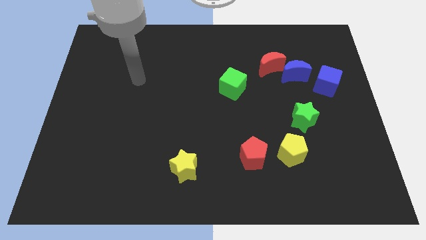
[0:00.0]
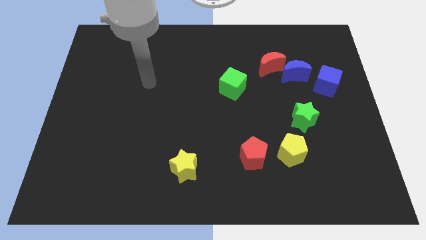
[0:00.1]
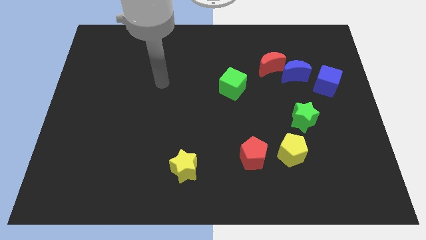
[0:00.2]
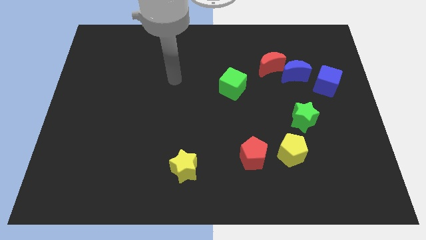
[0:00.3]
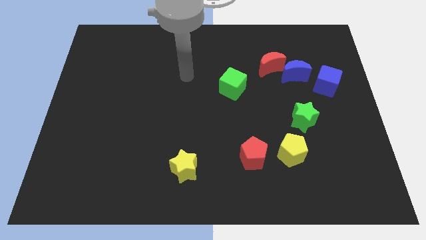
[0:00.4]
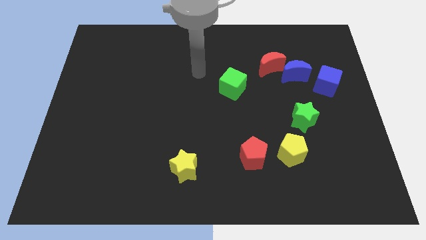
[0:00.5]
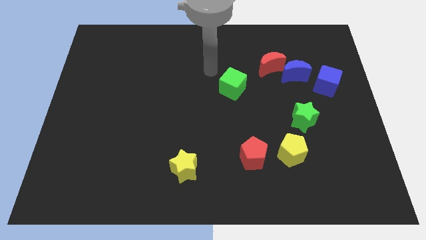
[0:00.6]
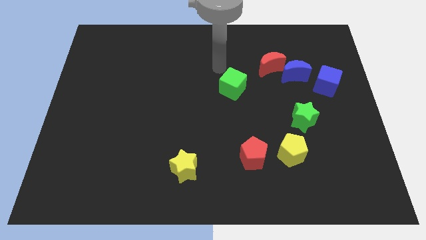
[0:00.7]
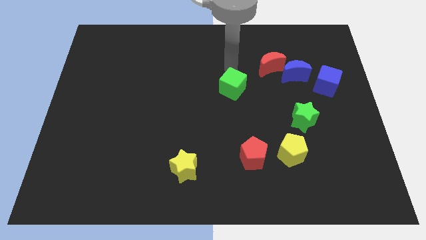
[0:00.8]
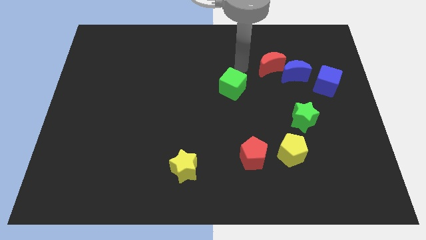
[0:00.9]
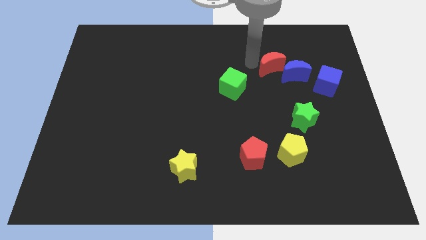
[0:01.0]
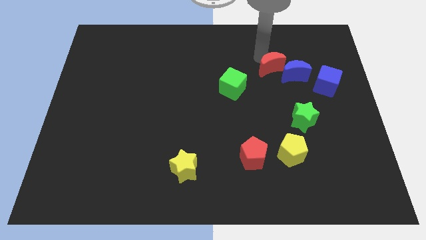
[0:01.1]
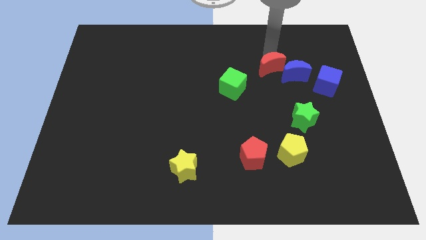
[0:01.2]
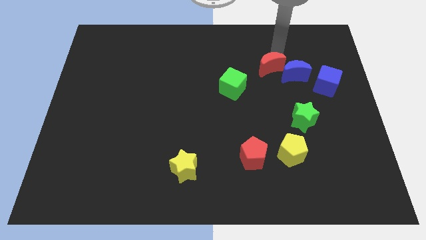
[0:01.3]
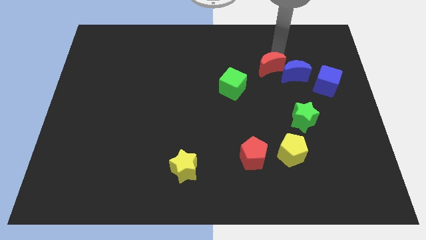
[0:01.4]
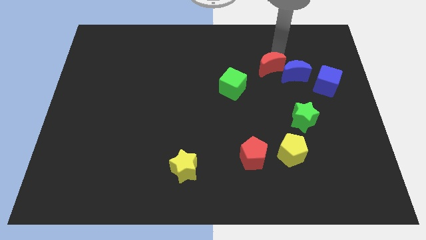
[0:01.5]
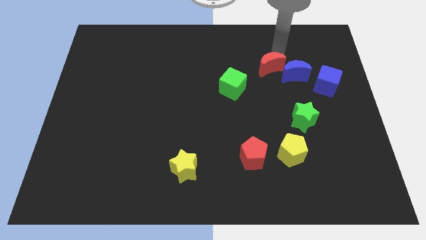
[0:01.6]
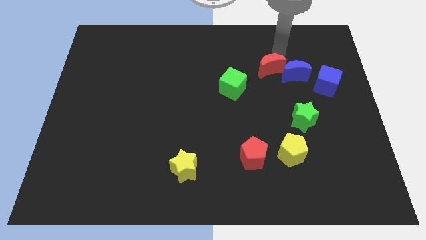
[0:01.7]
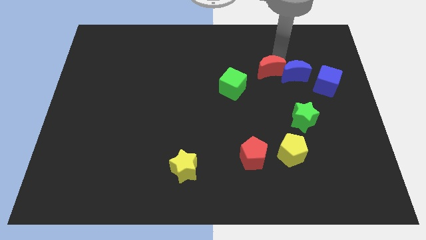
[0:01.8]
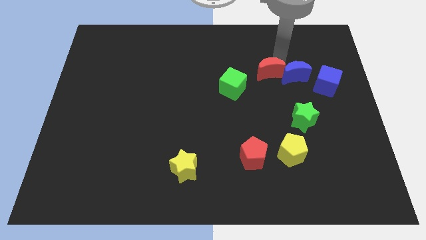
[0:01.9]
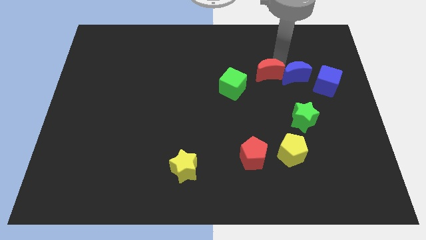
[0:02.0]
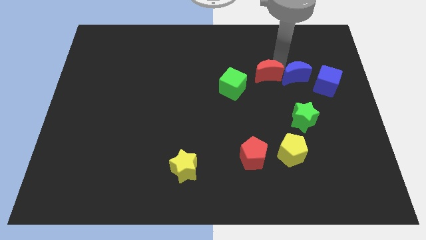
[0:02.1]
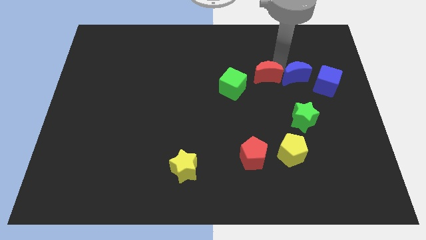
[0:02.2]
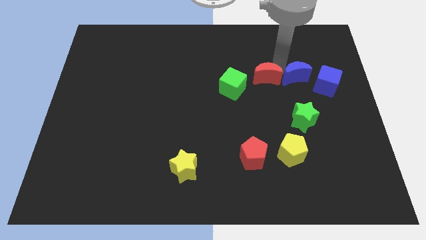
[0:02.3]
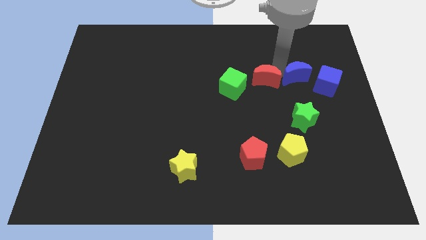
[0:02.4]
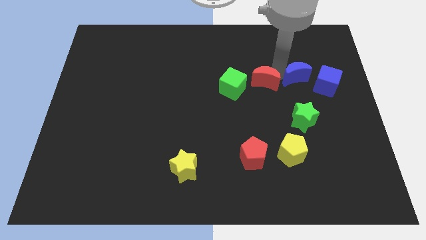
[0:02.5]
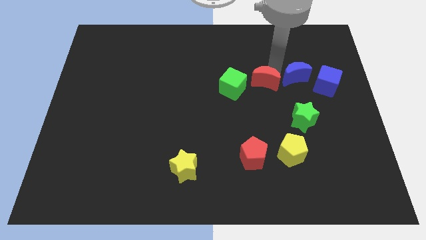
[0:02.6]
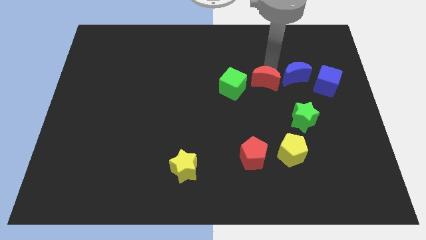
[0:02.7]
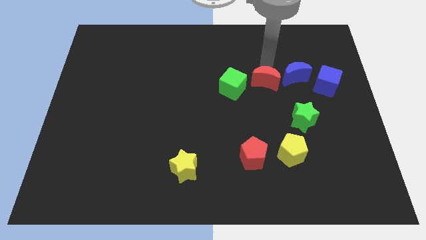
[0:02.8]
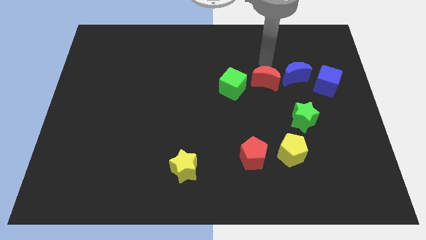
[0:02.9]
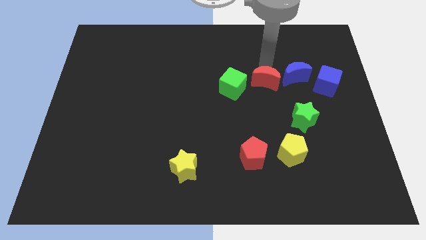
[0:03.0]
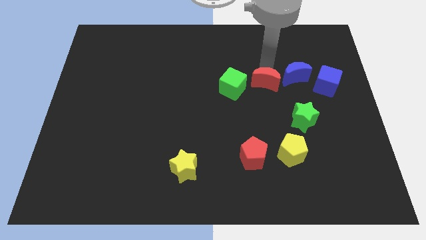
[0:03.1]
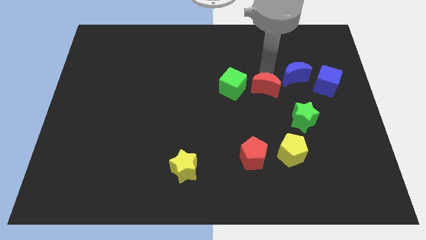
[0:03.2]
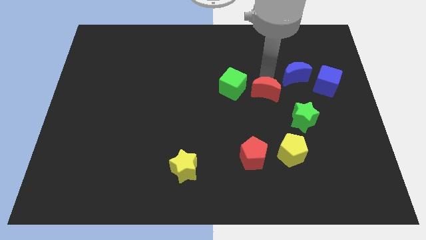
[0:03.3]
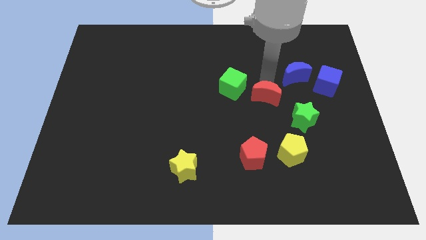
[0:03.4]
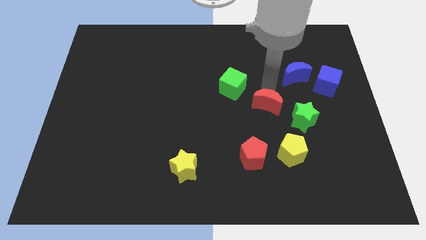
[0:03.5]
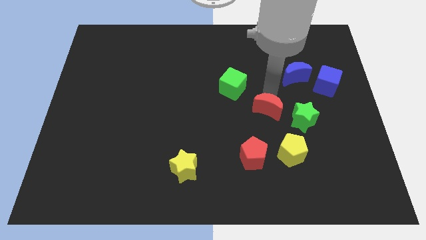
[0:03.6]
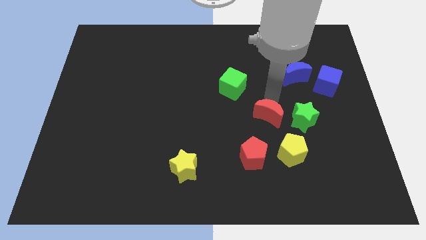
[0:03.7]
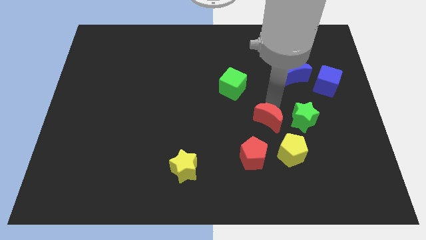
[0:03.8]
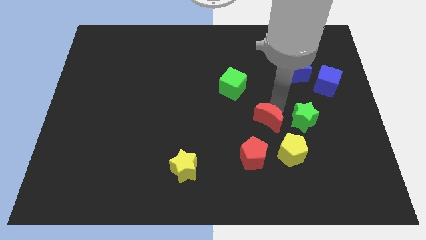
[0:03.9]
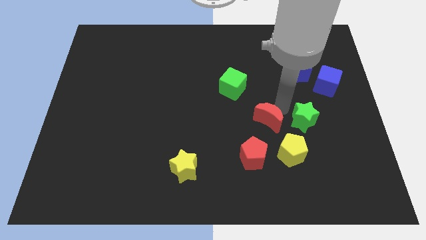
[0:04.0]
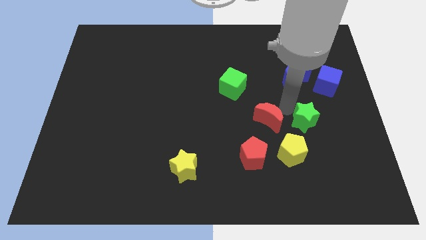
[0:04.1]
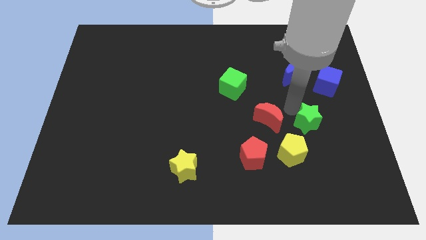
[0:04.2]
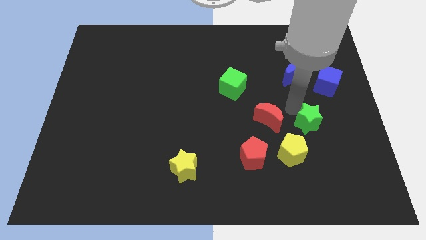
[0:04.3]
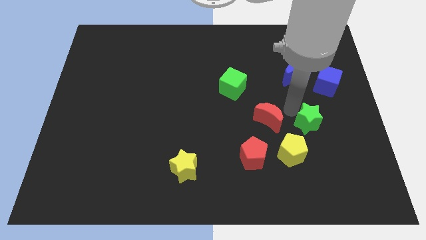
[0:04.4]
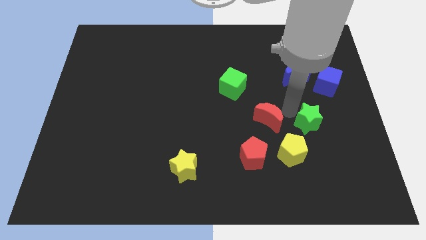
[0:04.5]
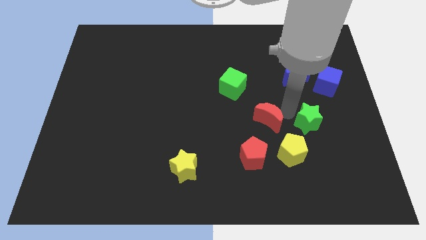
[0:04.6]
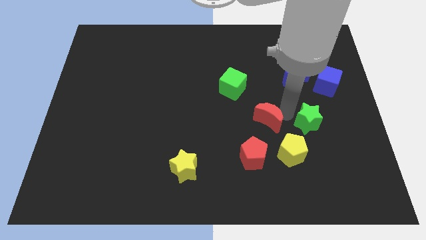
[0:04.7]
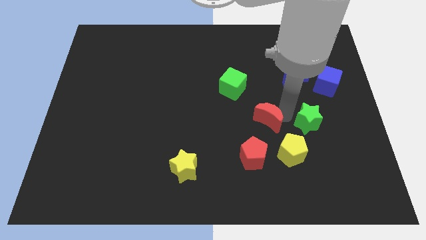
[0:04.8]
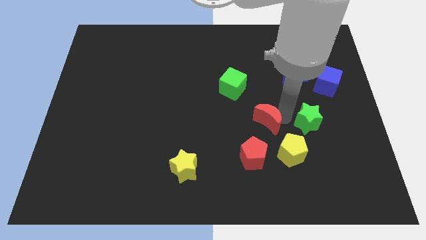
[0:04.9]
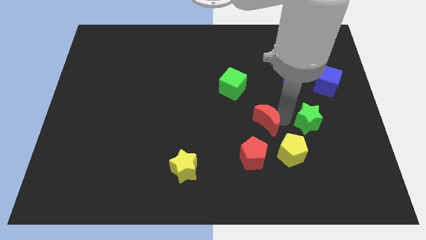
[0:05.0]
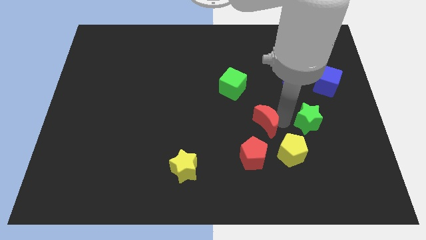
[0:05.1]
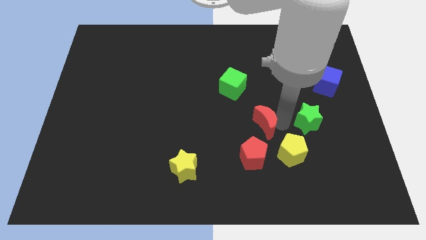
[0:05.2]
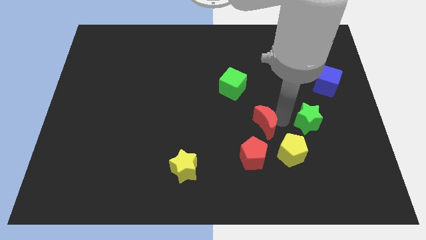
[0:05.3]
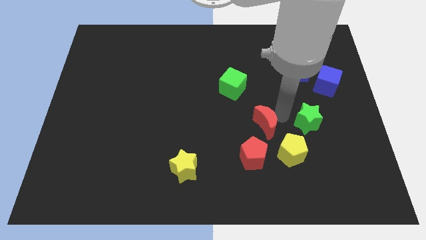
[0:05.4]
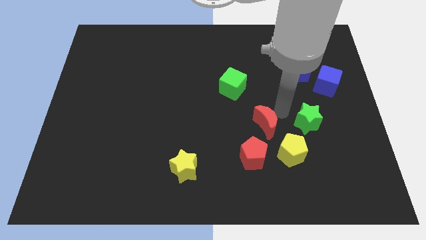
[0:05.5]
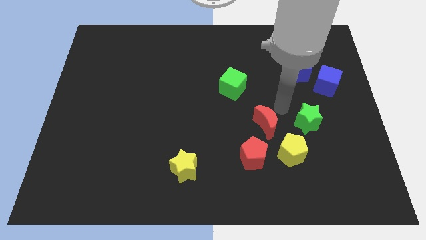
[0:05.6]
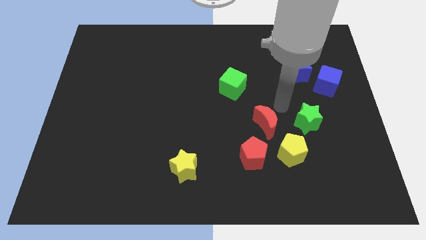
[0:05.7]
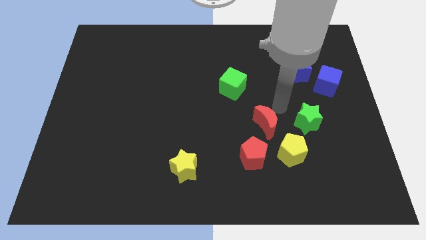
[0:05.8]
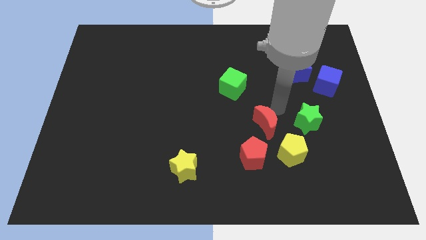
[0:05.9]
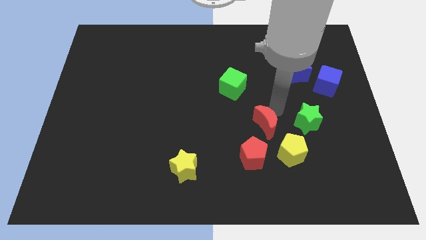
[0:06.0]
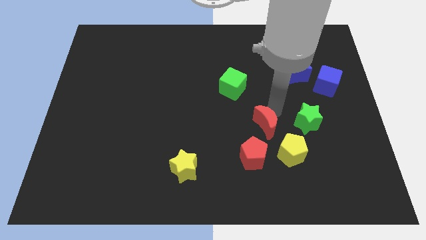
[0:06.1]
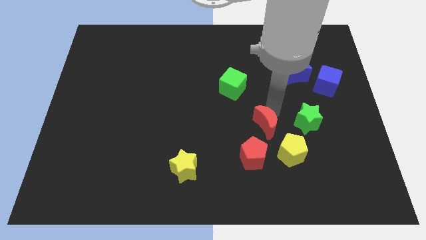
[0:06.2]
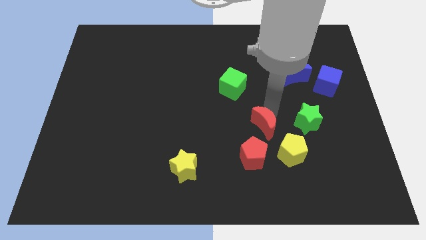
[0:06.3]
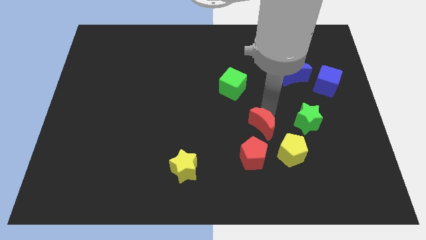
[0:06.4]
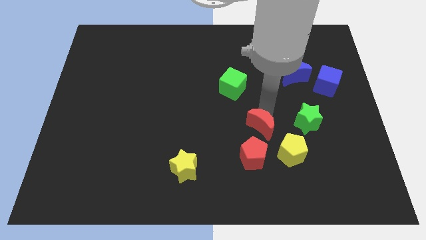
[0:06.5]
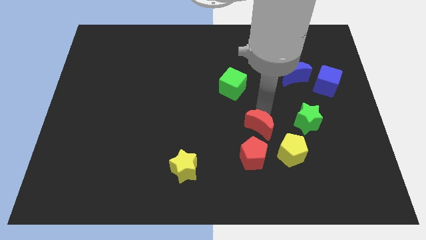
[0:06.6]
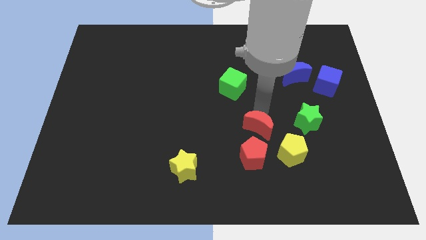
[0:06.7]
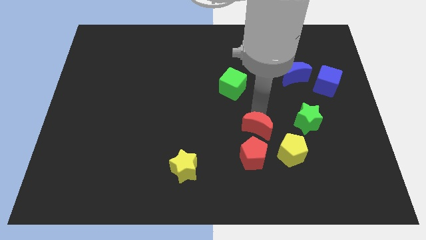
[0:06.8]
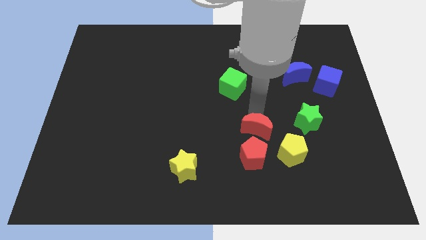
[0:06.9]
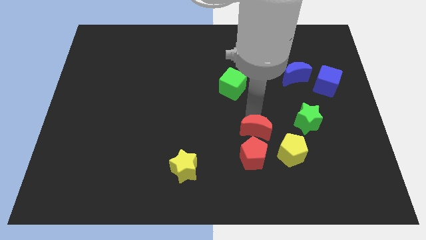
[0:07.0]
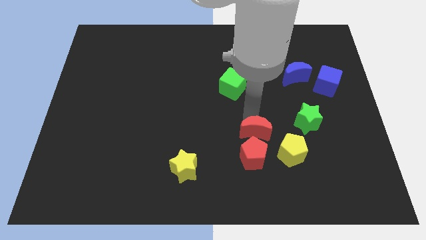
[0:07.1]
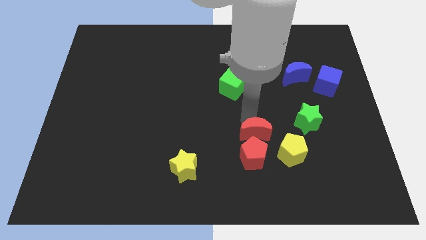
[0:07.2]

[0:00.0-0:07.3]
push the red moon next to the red pentagon

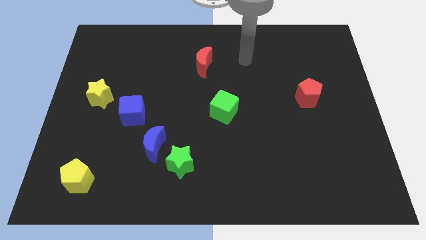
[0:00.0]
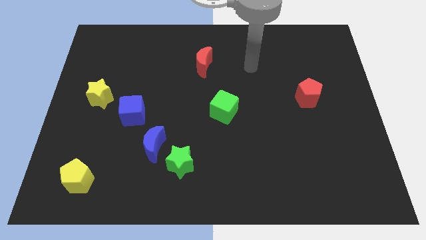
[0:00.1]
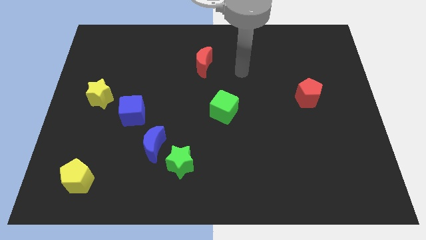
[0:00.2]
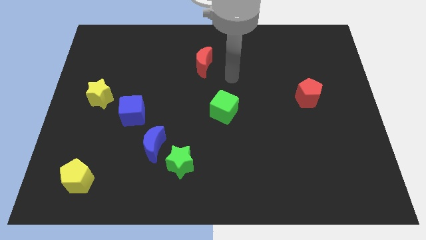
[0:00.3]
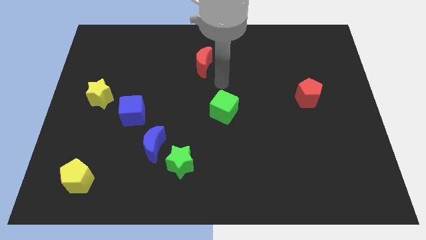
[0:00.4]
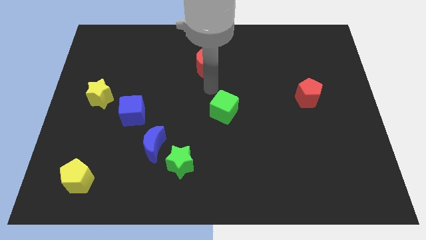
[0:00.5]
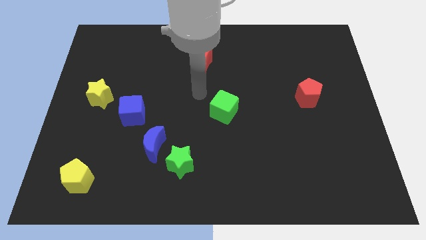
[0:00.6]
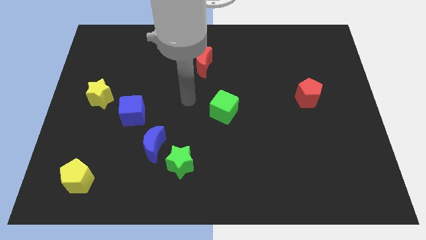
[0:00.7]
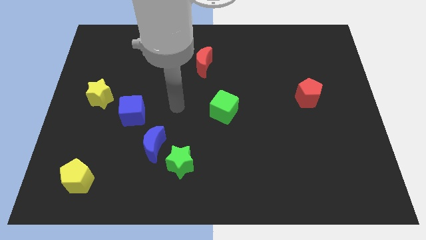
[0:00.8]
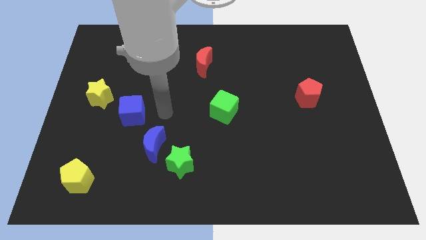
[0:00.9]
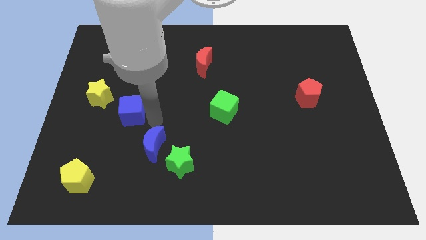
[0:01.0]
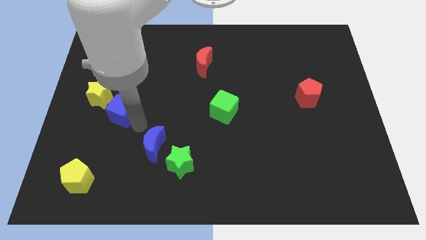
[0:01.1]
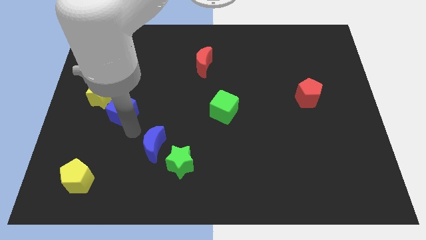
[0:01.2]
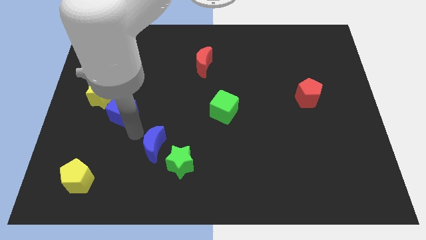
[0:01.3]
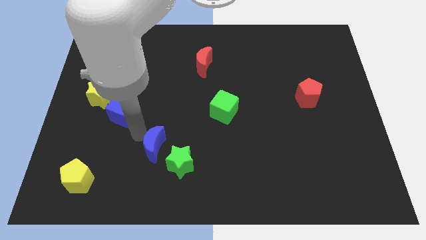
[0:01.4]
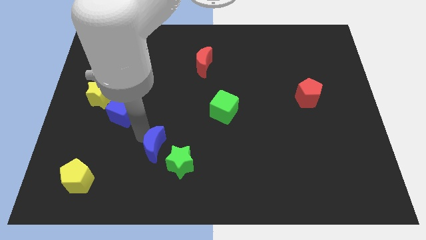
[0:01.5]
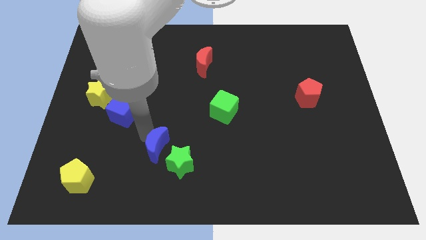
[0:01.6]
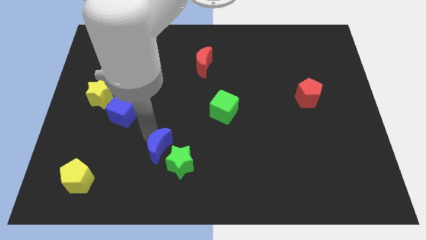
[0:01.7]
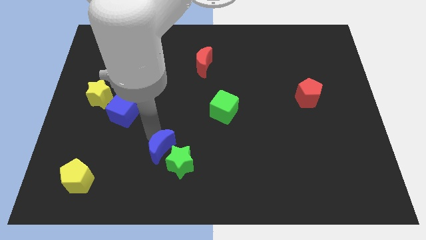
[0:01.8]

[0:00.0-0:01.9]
put the blue moon close to the green star
